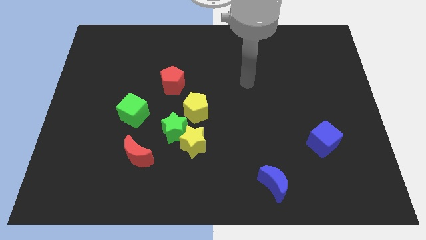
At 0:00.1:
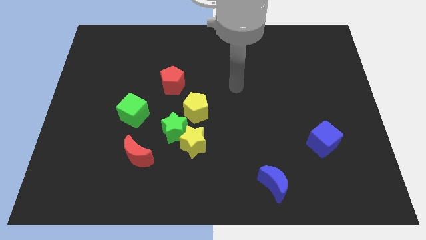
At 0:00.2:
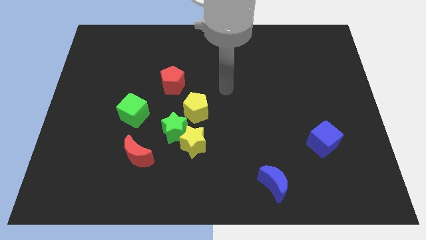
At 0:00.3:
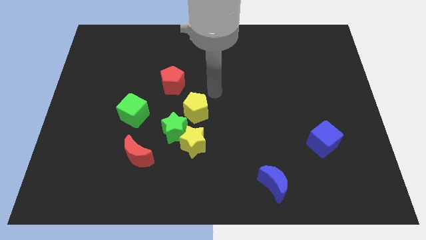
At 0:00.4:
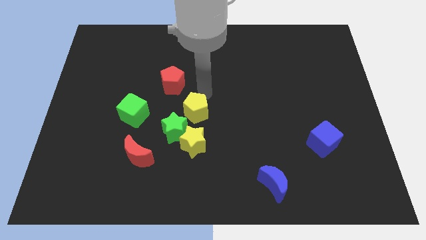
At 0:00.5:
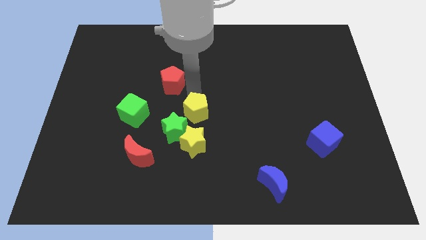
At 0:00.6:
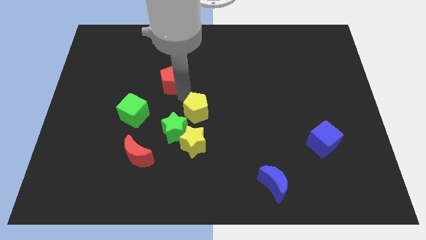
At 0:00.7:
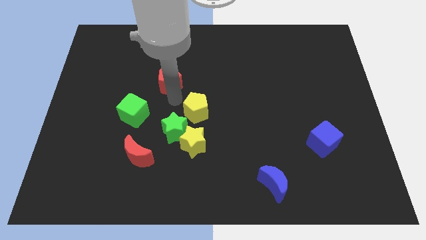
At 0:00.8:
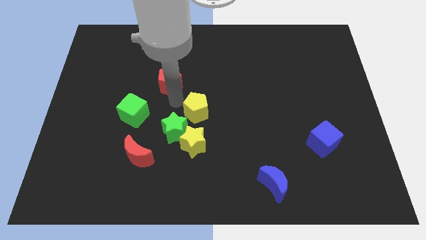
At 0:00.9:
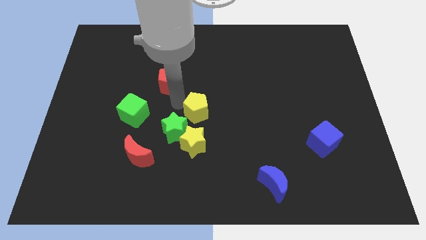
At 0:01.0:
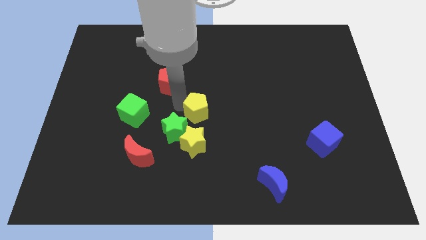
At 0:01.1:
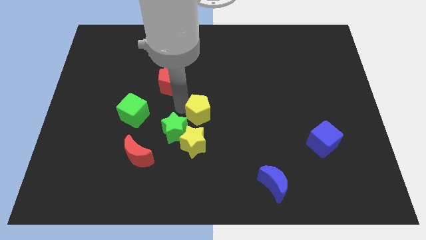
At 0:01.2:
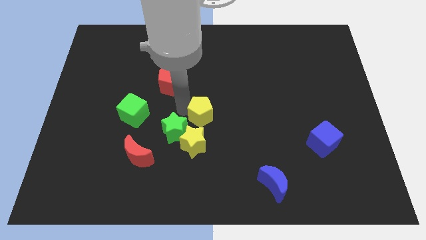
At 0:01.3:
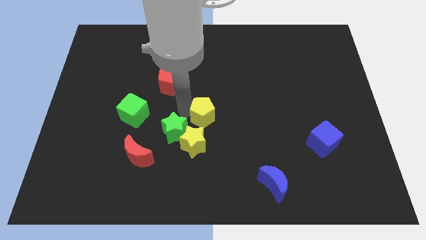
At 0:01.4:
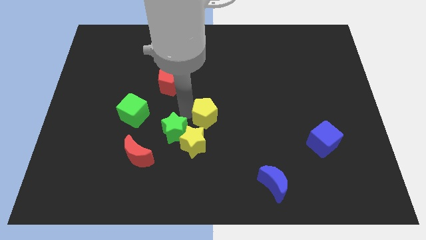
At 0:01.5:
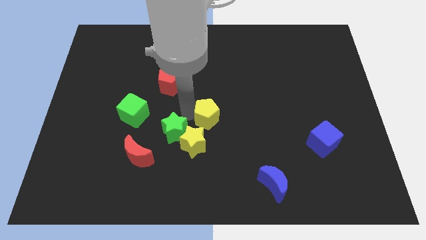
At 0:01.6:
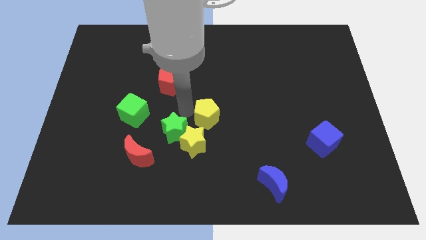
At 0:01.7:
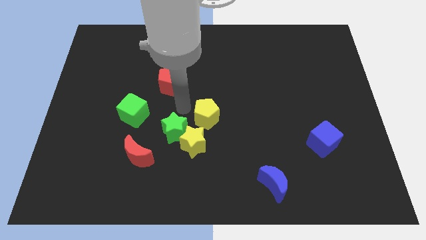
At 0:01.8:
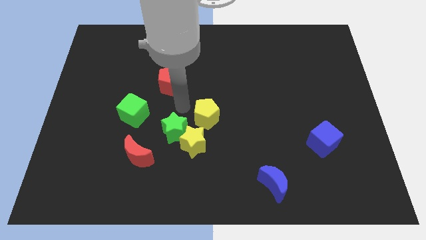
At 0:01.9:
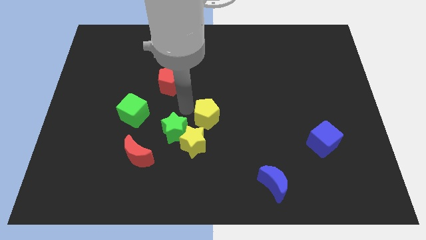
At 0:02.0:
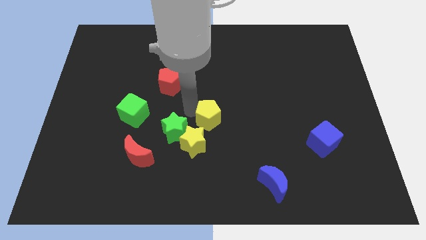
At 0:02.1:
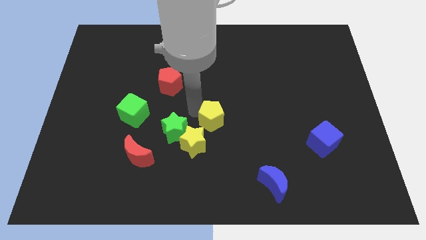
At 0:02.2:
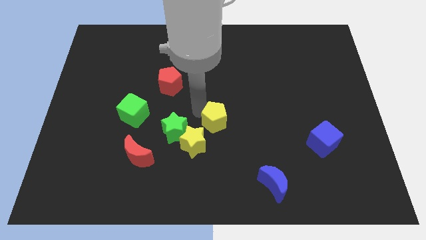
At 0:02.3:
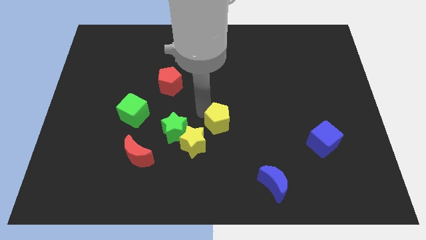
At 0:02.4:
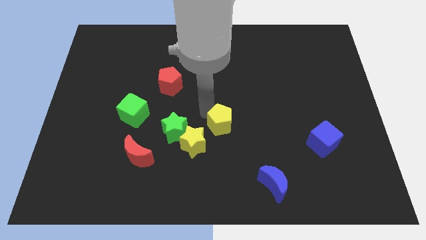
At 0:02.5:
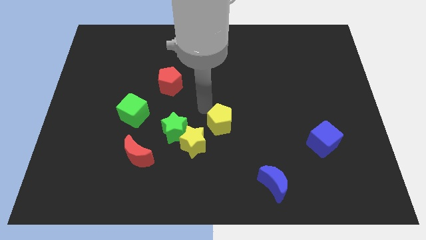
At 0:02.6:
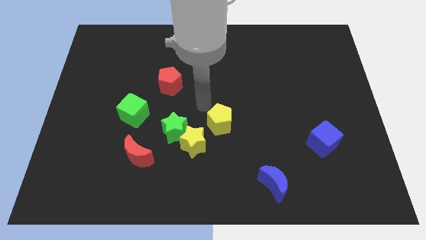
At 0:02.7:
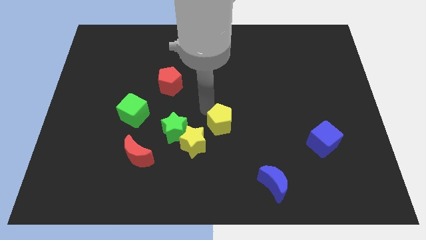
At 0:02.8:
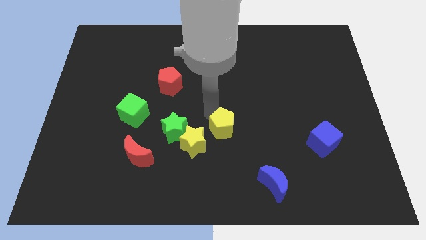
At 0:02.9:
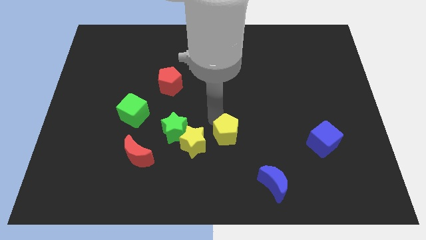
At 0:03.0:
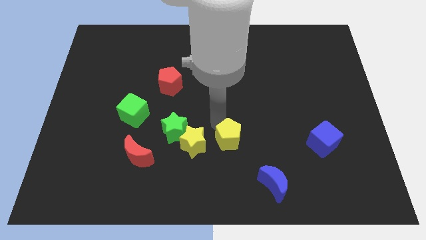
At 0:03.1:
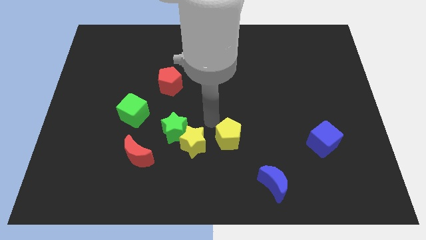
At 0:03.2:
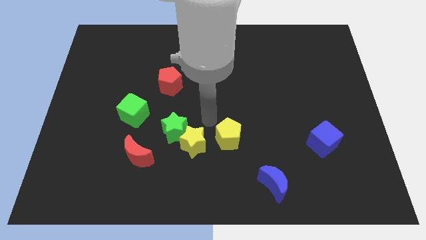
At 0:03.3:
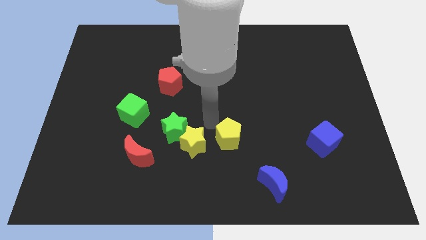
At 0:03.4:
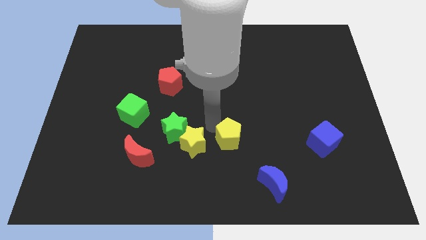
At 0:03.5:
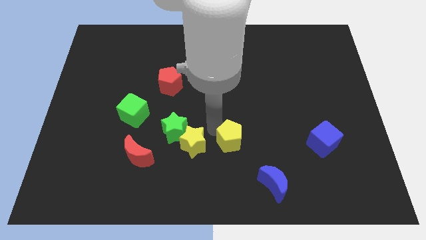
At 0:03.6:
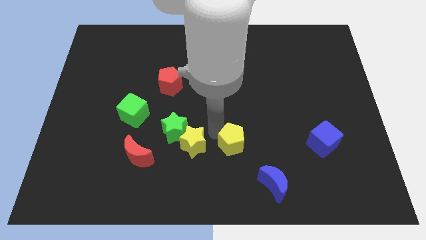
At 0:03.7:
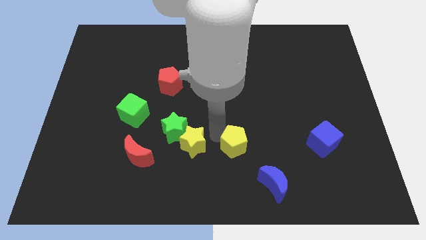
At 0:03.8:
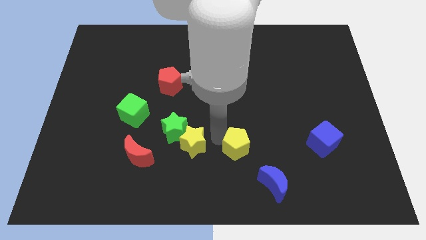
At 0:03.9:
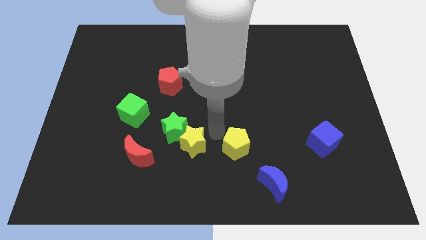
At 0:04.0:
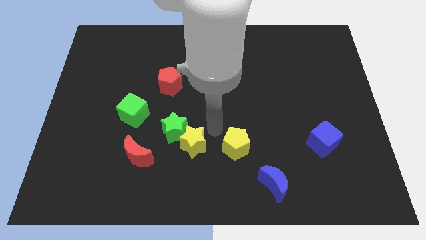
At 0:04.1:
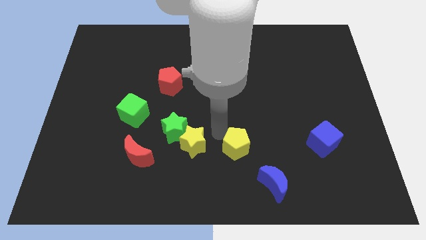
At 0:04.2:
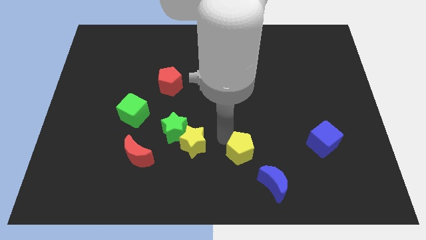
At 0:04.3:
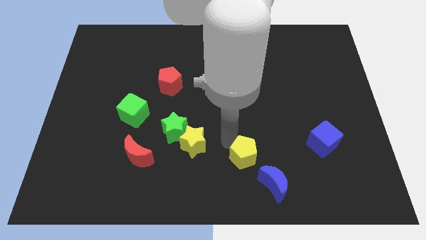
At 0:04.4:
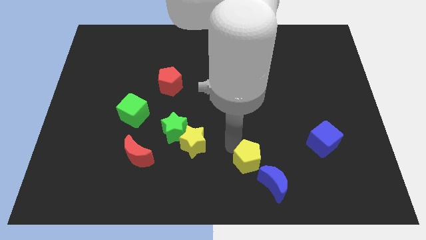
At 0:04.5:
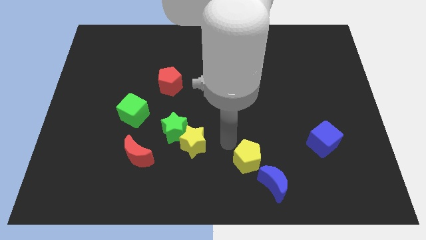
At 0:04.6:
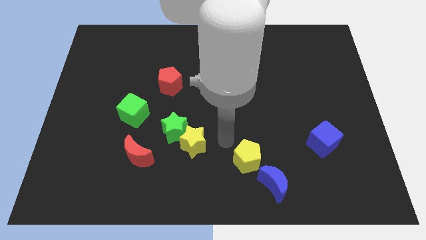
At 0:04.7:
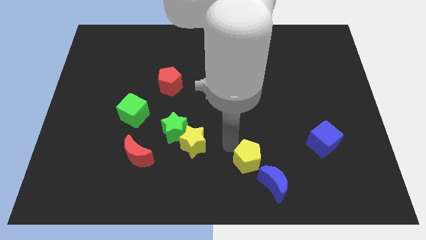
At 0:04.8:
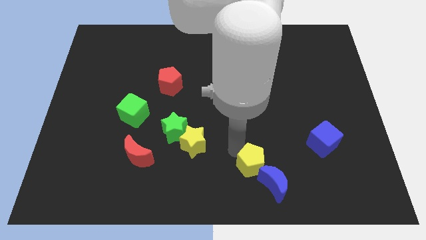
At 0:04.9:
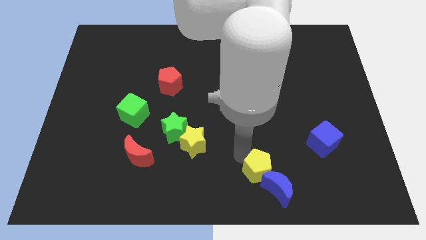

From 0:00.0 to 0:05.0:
put the yellow pentagon towards the blue moon

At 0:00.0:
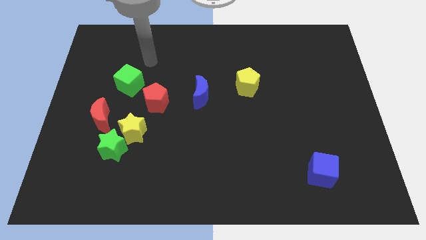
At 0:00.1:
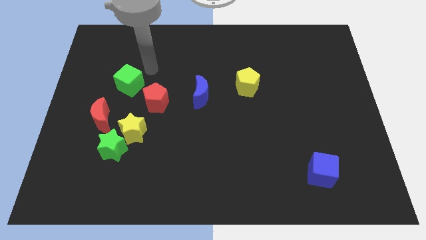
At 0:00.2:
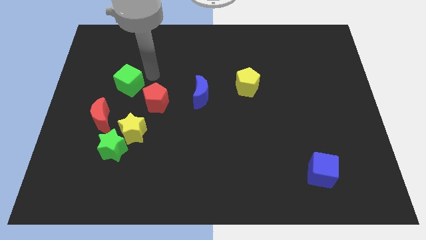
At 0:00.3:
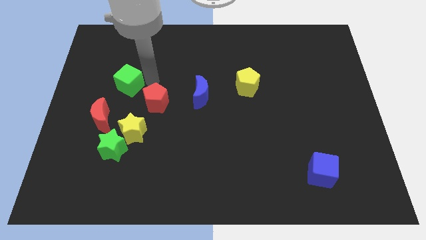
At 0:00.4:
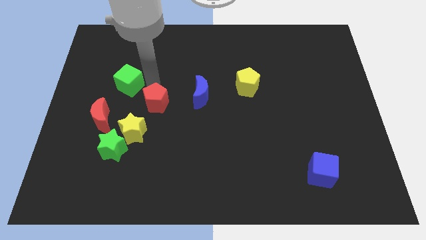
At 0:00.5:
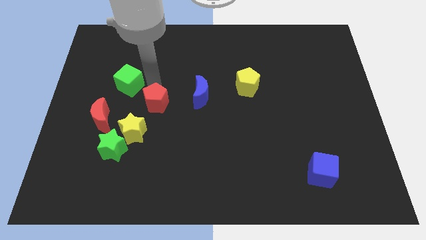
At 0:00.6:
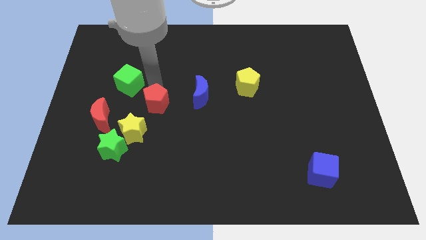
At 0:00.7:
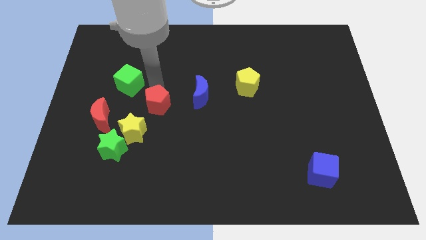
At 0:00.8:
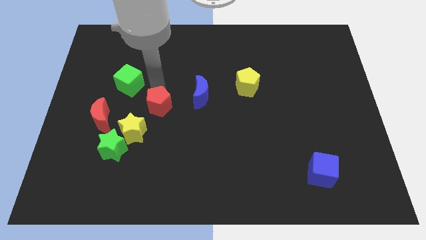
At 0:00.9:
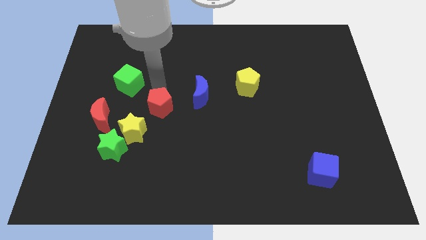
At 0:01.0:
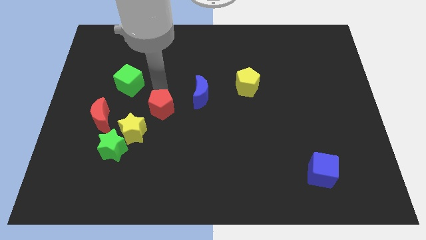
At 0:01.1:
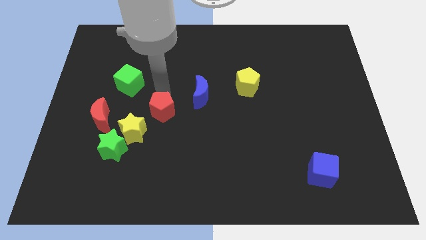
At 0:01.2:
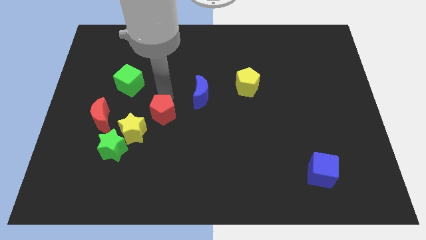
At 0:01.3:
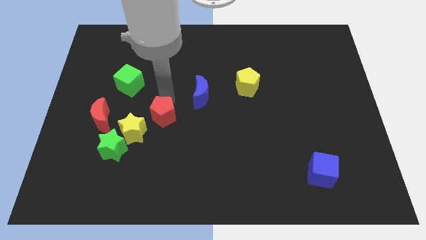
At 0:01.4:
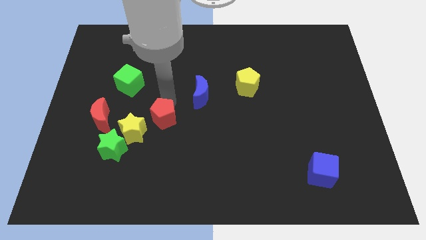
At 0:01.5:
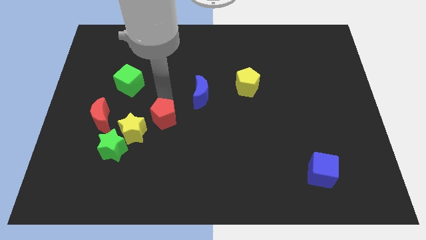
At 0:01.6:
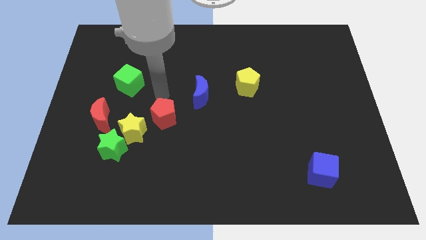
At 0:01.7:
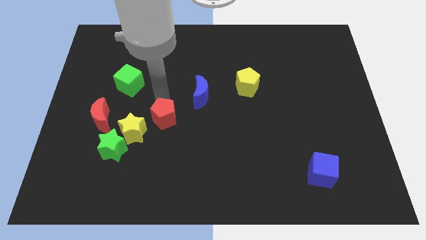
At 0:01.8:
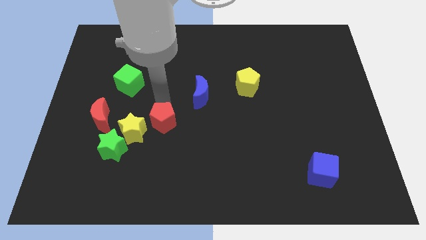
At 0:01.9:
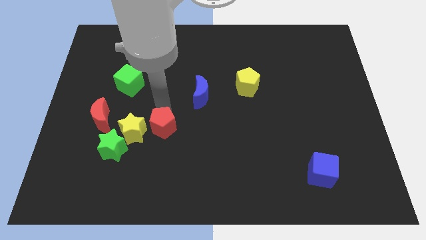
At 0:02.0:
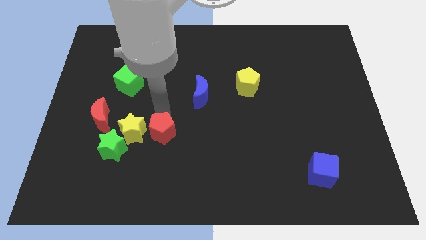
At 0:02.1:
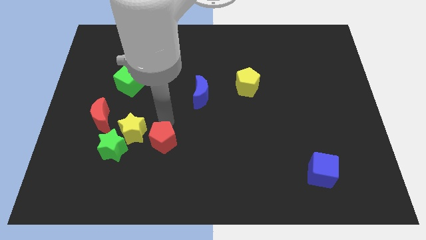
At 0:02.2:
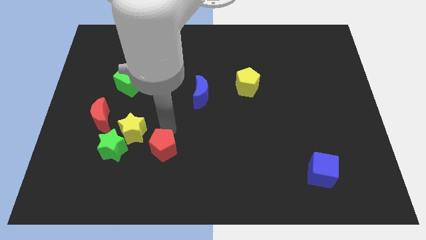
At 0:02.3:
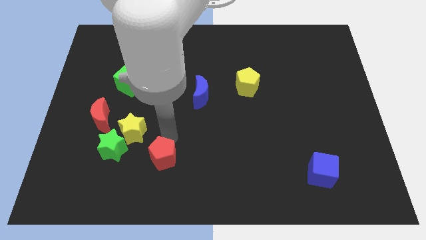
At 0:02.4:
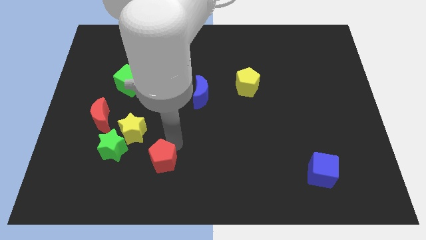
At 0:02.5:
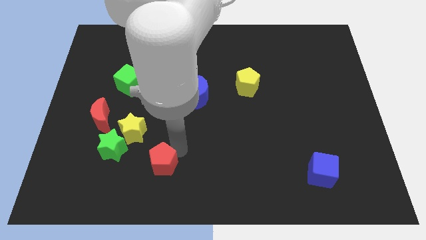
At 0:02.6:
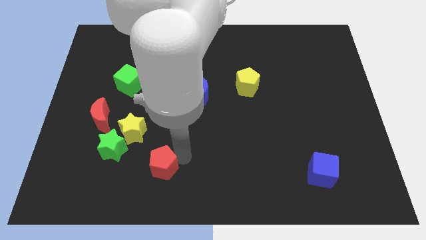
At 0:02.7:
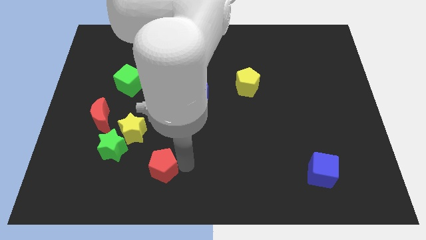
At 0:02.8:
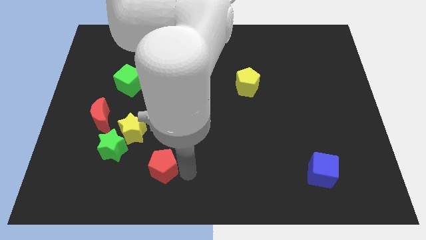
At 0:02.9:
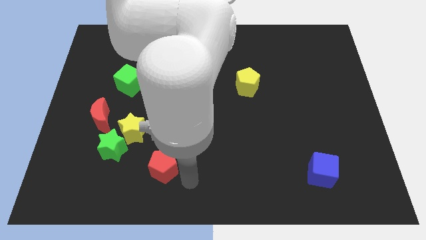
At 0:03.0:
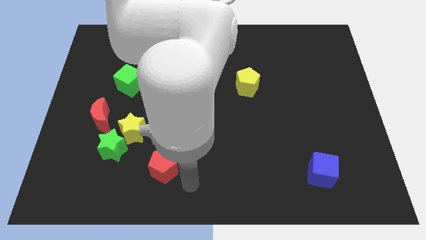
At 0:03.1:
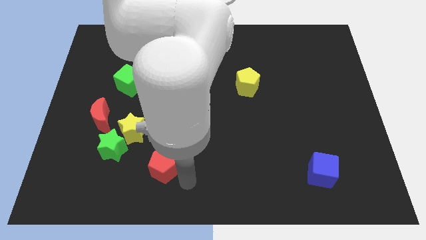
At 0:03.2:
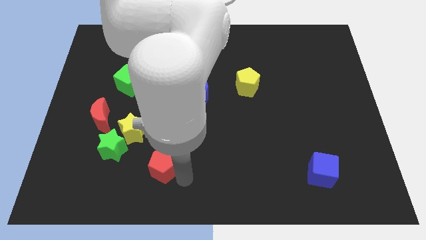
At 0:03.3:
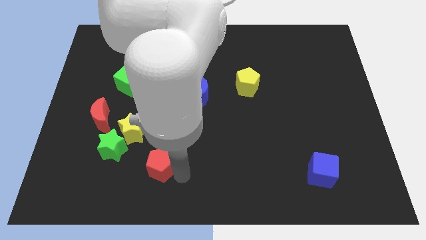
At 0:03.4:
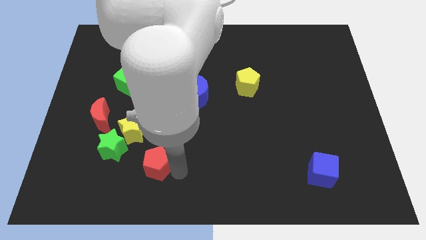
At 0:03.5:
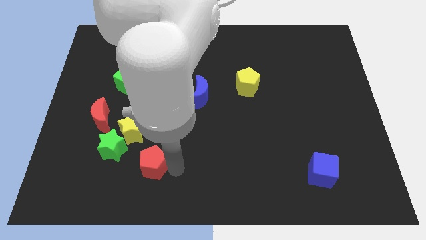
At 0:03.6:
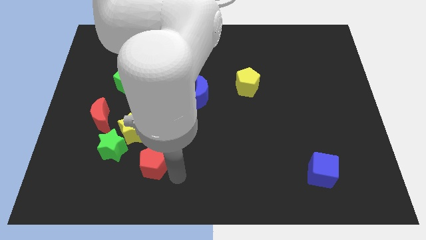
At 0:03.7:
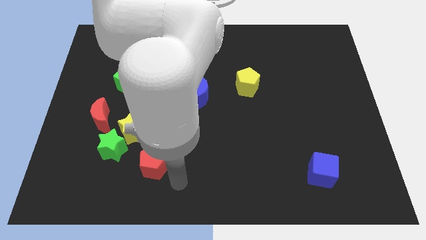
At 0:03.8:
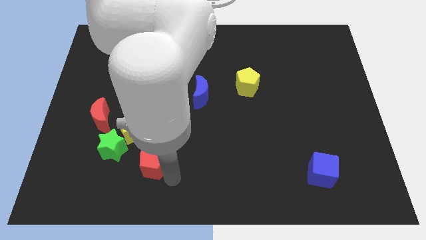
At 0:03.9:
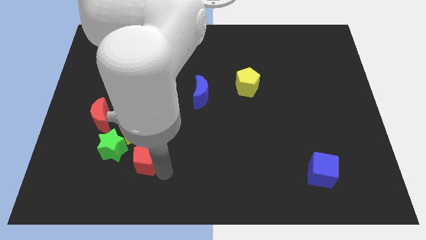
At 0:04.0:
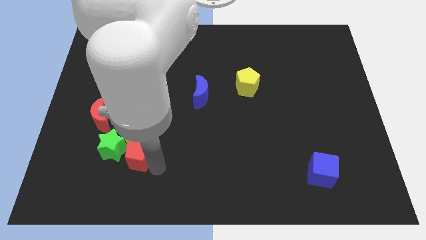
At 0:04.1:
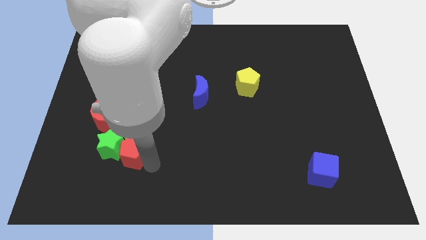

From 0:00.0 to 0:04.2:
put the red pentagon next to the green star
